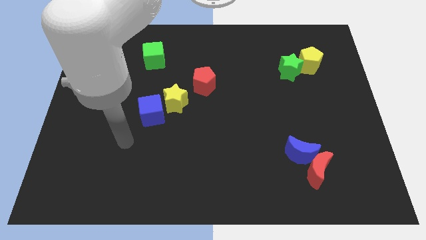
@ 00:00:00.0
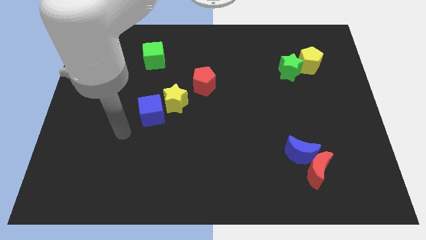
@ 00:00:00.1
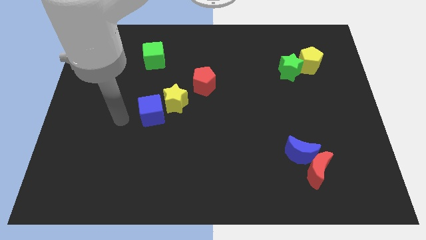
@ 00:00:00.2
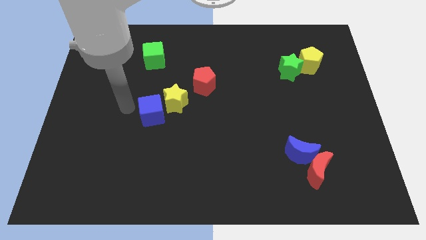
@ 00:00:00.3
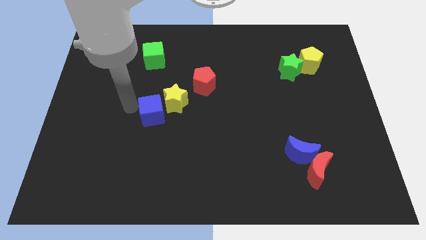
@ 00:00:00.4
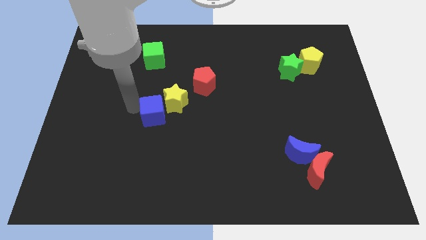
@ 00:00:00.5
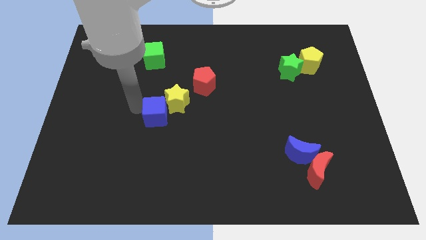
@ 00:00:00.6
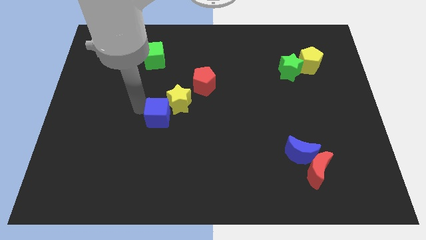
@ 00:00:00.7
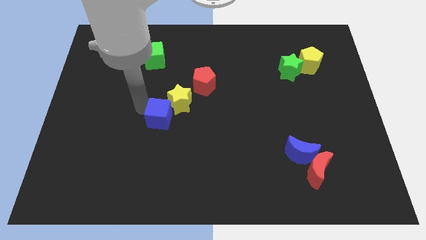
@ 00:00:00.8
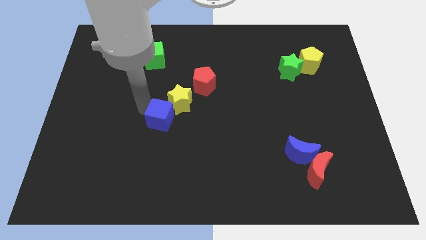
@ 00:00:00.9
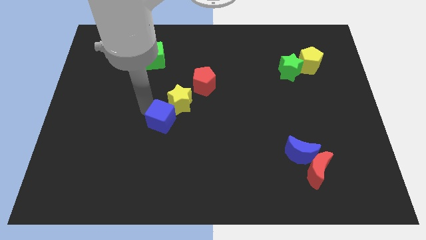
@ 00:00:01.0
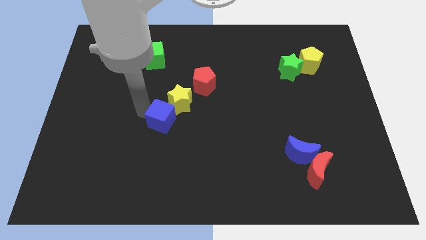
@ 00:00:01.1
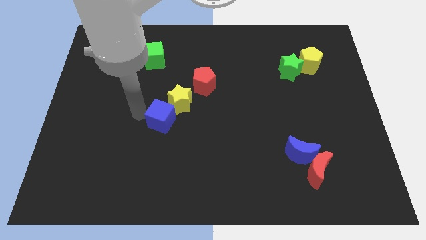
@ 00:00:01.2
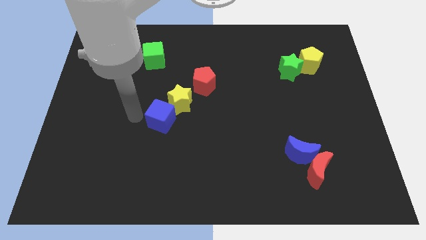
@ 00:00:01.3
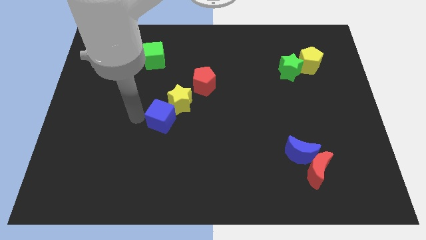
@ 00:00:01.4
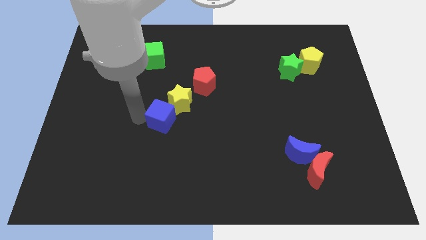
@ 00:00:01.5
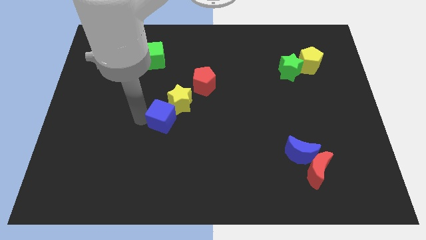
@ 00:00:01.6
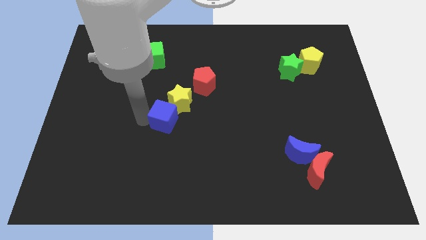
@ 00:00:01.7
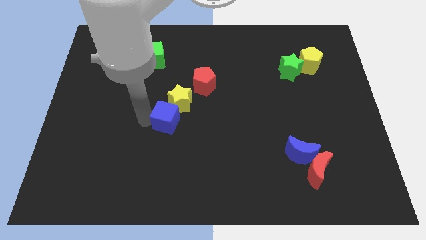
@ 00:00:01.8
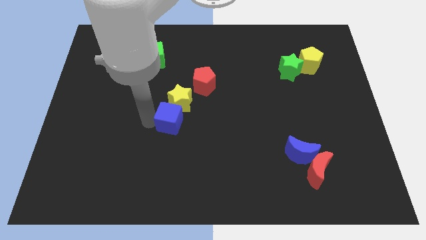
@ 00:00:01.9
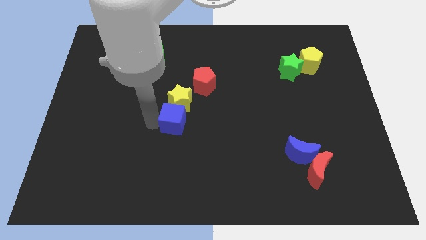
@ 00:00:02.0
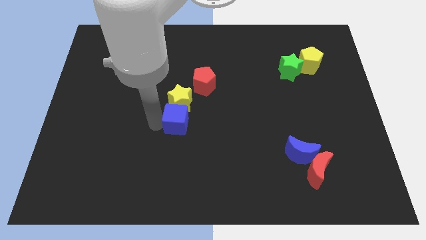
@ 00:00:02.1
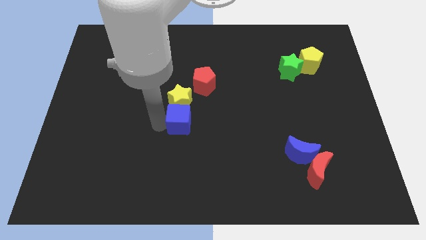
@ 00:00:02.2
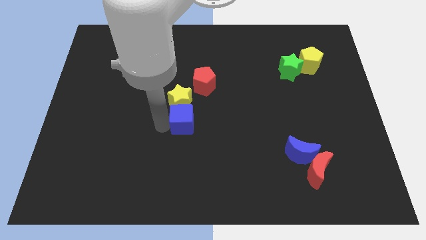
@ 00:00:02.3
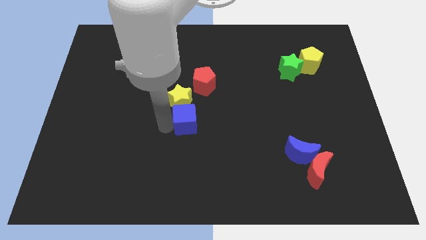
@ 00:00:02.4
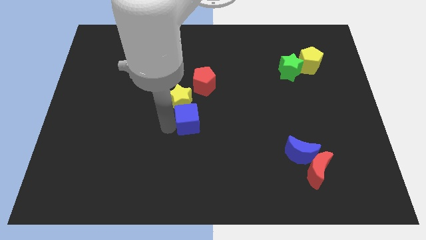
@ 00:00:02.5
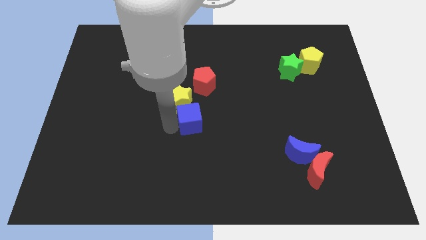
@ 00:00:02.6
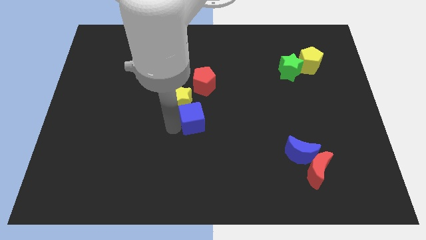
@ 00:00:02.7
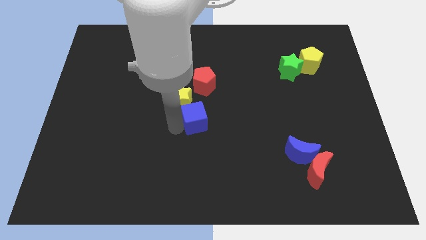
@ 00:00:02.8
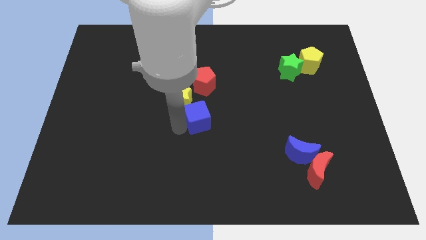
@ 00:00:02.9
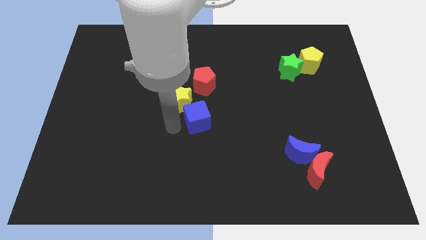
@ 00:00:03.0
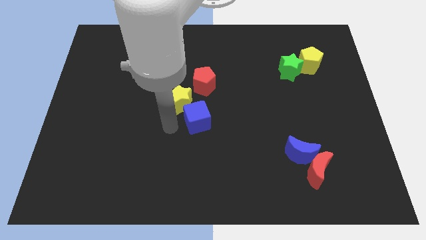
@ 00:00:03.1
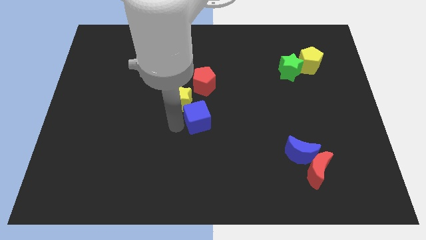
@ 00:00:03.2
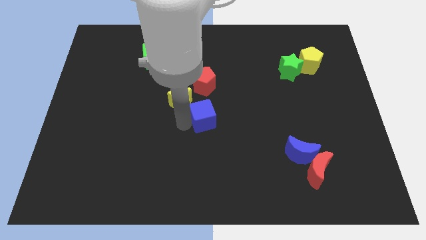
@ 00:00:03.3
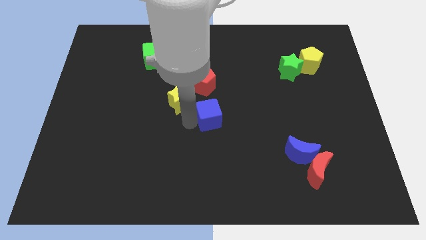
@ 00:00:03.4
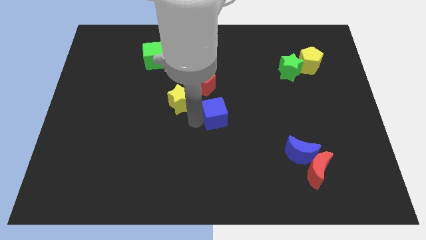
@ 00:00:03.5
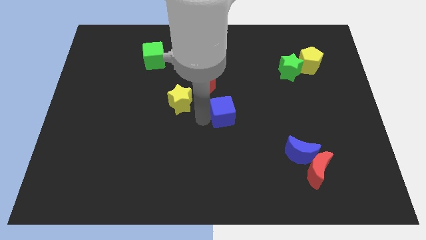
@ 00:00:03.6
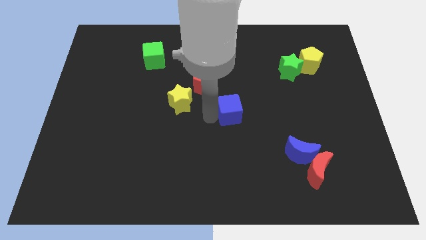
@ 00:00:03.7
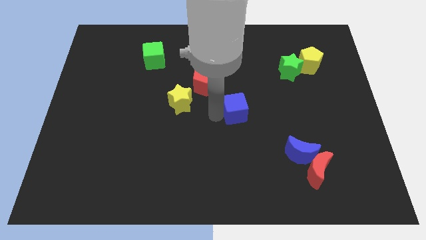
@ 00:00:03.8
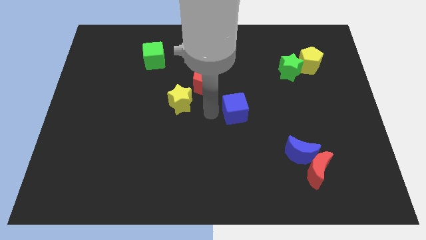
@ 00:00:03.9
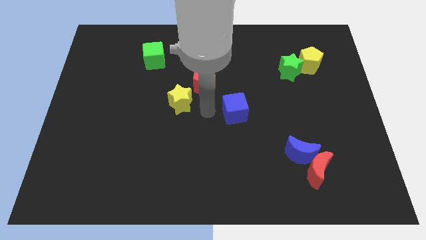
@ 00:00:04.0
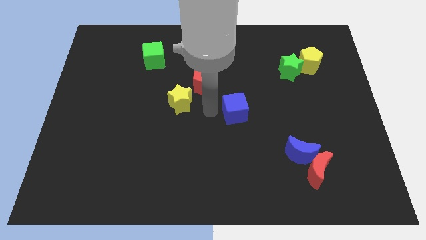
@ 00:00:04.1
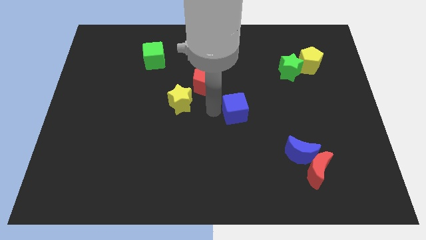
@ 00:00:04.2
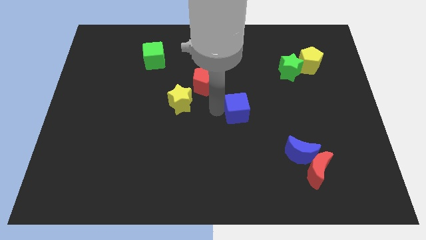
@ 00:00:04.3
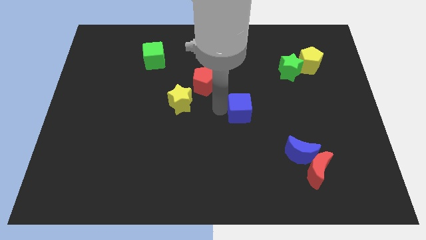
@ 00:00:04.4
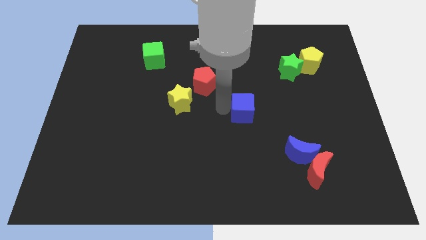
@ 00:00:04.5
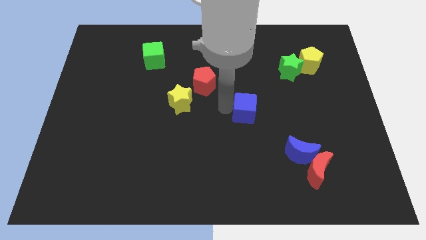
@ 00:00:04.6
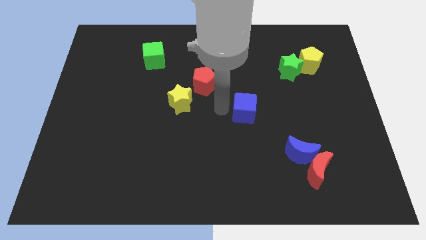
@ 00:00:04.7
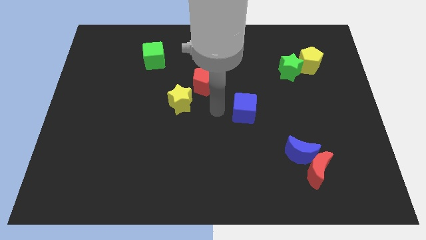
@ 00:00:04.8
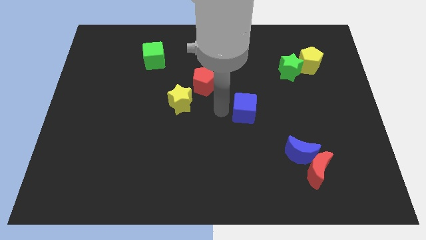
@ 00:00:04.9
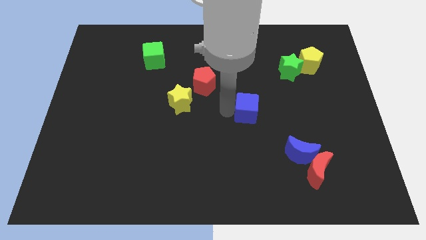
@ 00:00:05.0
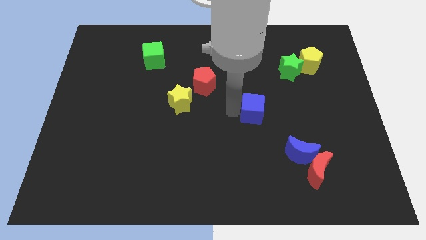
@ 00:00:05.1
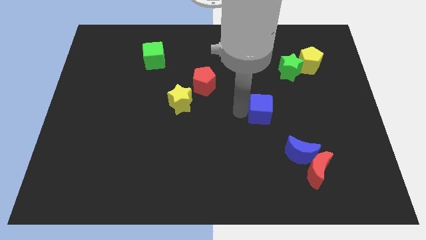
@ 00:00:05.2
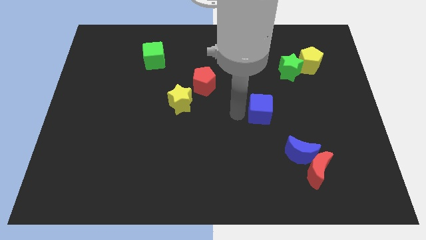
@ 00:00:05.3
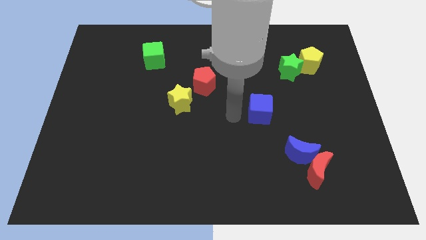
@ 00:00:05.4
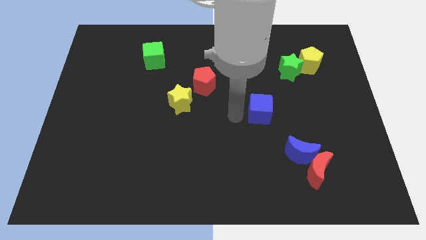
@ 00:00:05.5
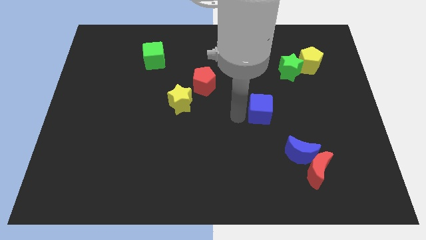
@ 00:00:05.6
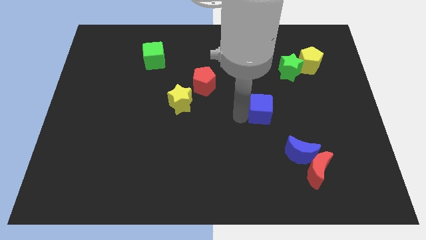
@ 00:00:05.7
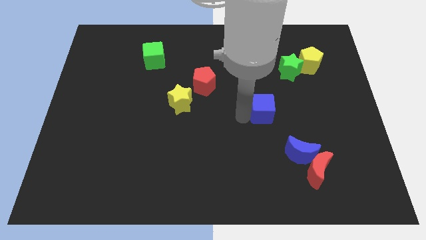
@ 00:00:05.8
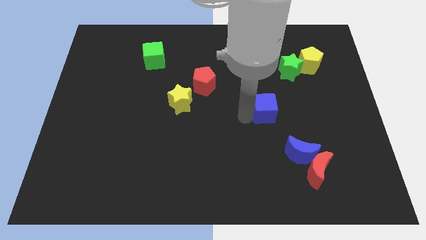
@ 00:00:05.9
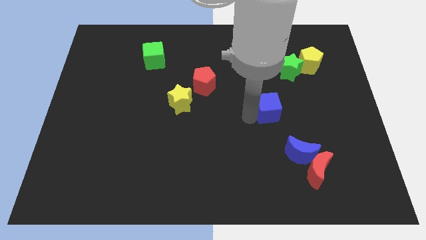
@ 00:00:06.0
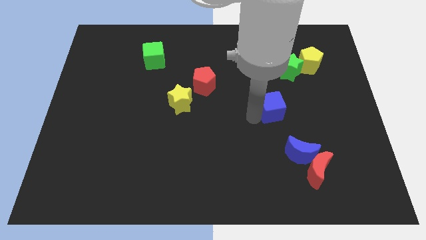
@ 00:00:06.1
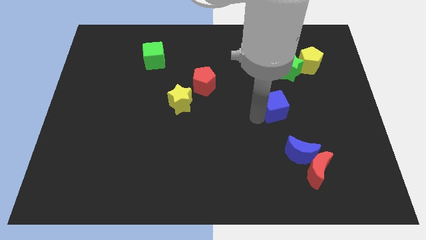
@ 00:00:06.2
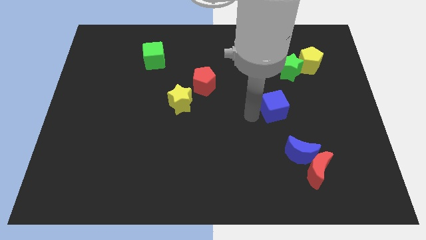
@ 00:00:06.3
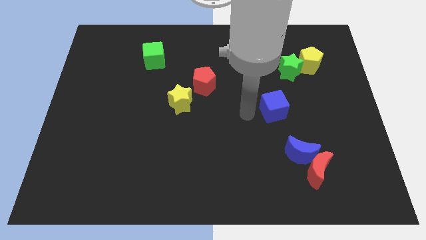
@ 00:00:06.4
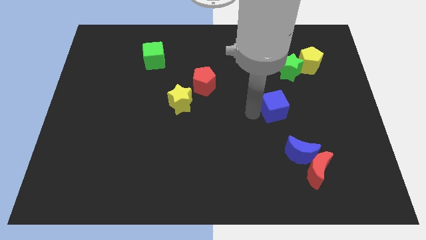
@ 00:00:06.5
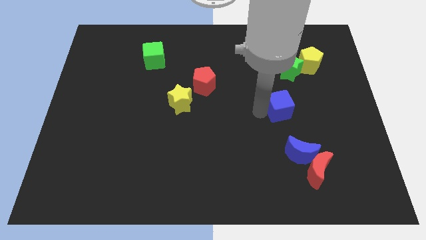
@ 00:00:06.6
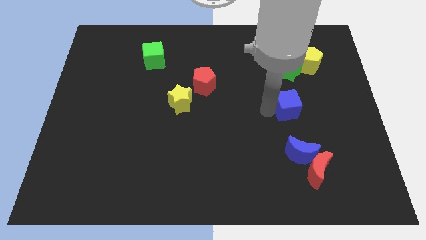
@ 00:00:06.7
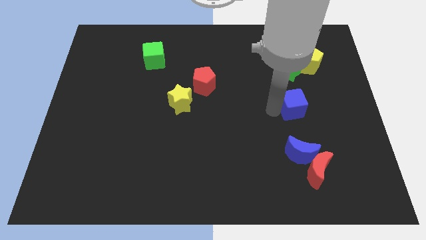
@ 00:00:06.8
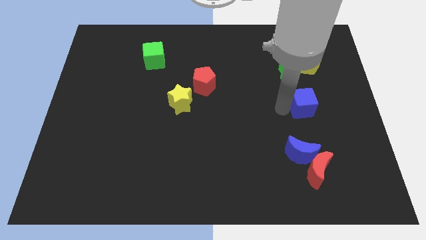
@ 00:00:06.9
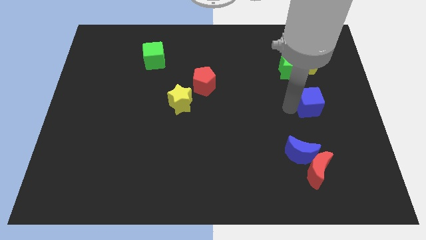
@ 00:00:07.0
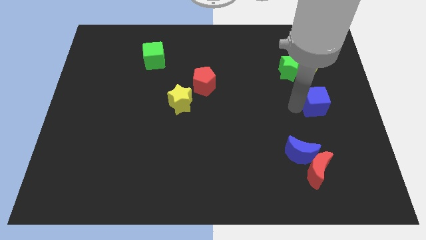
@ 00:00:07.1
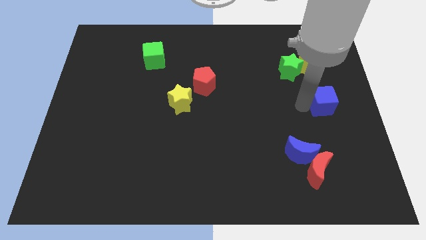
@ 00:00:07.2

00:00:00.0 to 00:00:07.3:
move the blue cube to the right side of the board
